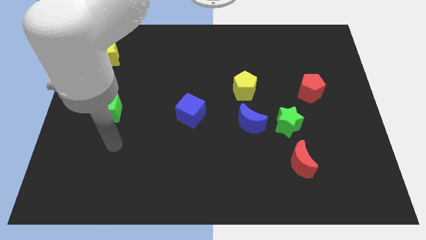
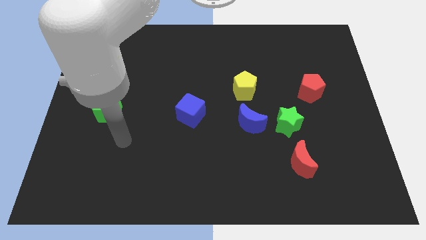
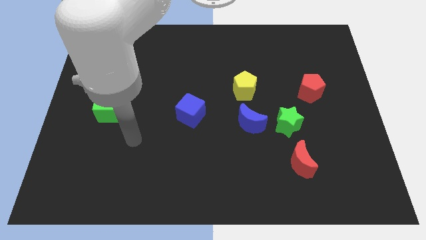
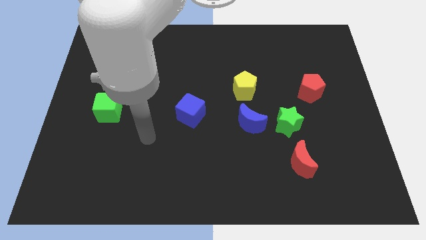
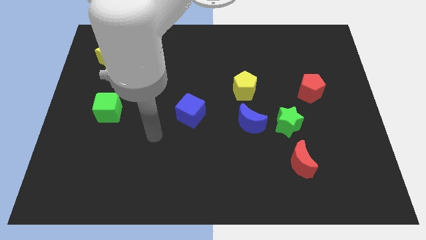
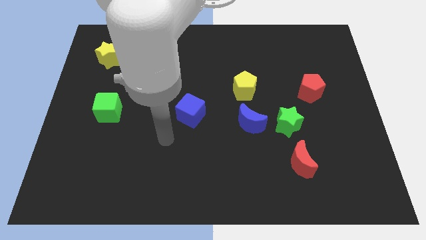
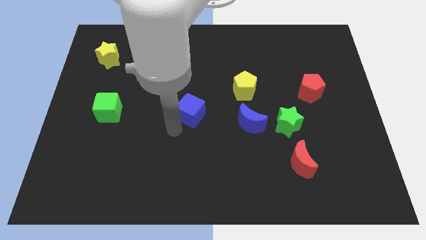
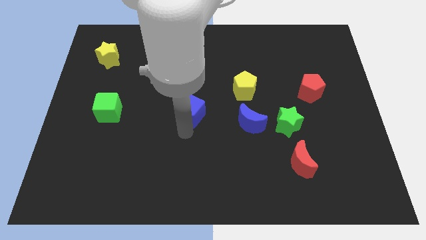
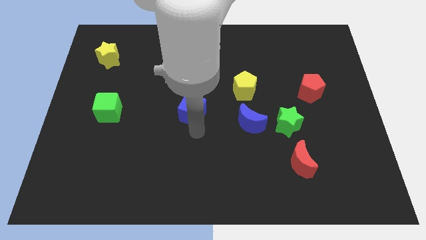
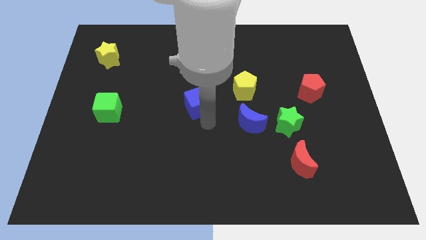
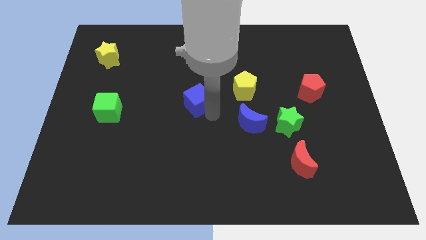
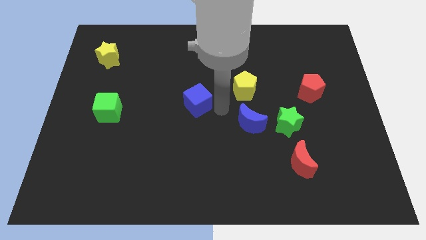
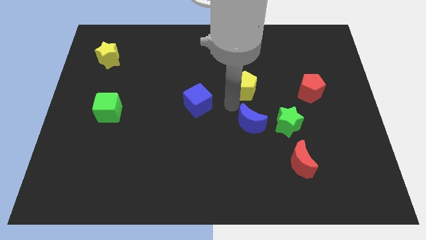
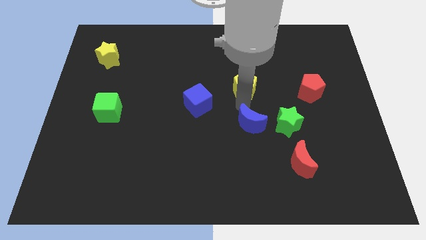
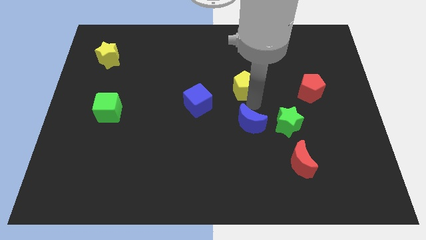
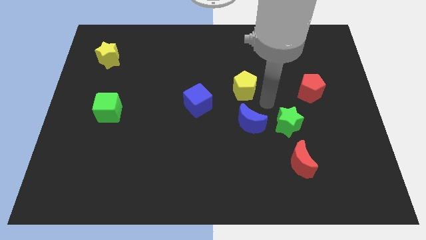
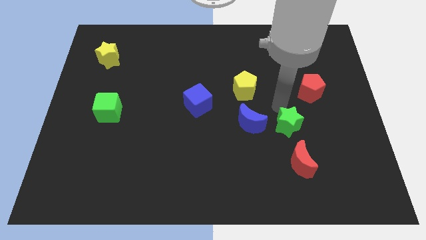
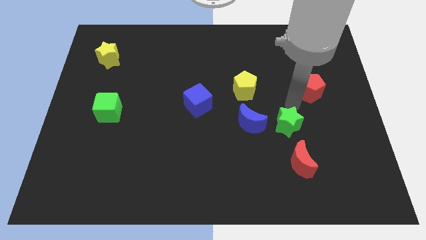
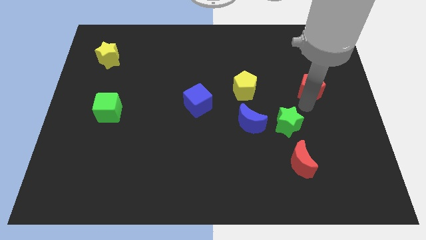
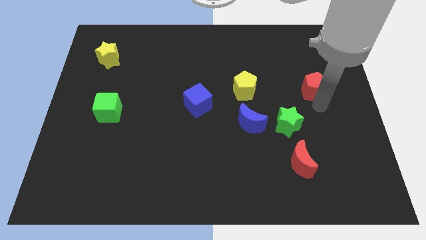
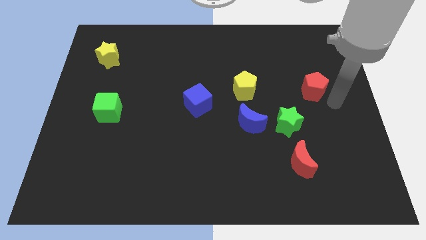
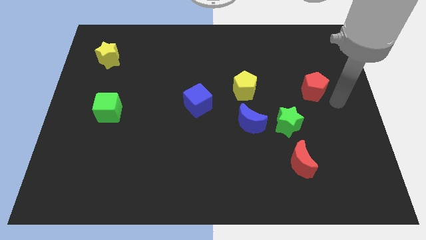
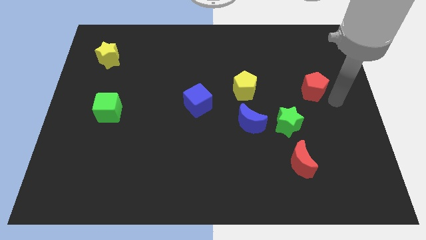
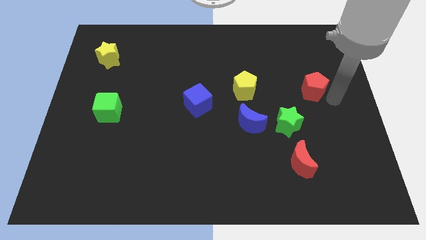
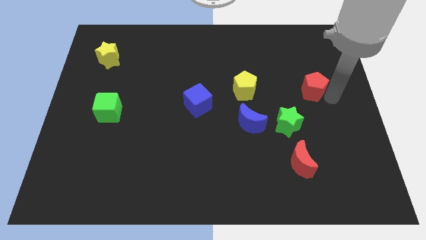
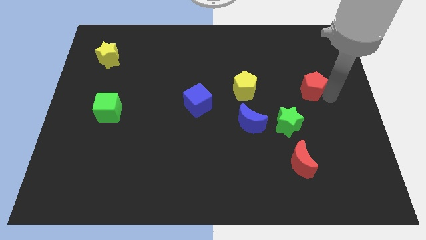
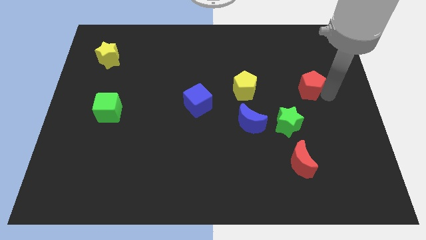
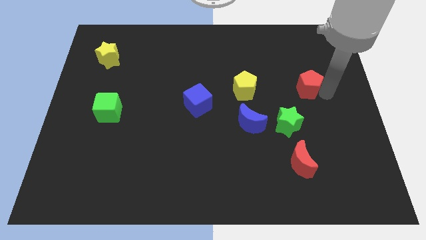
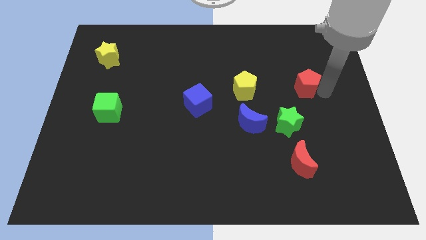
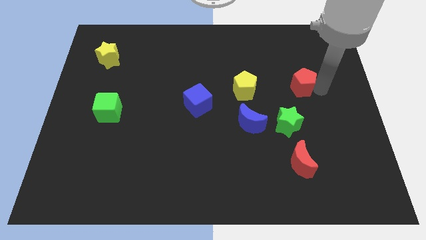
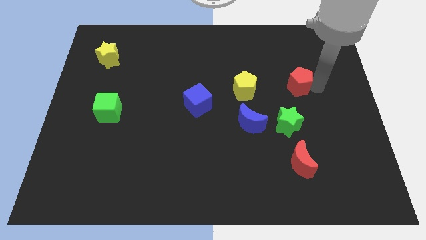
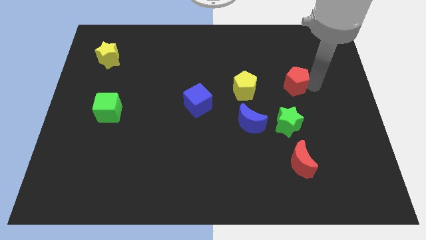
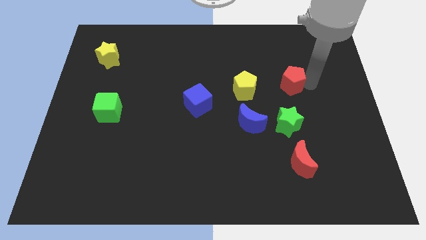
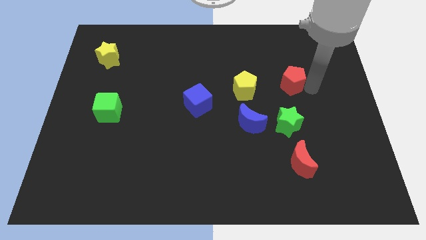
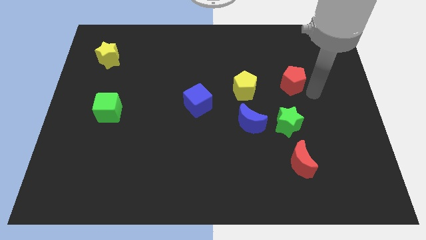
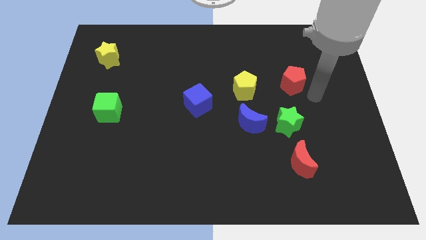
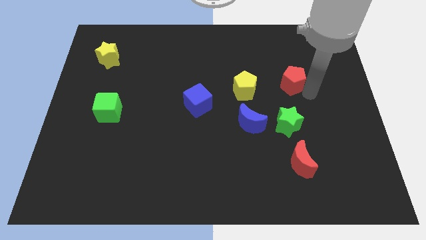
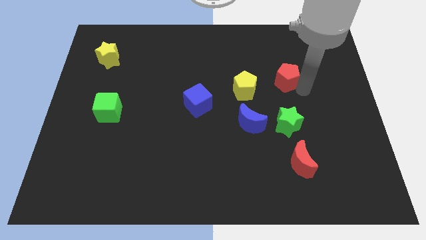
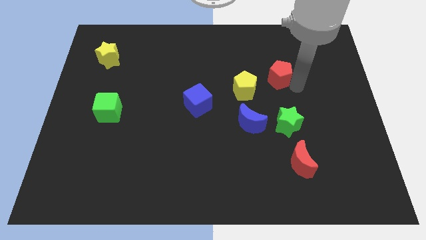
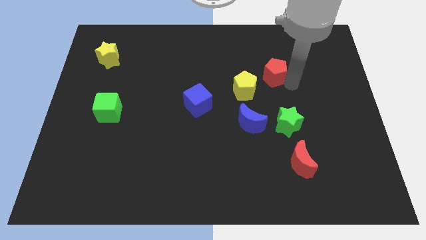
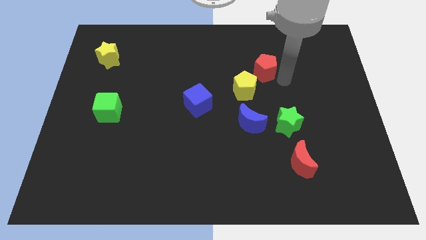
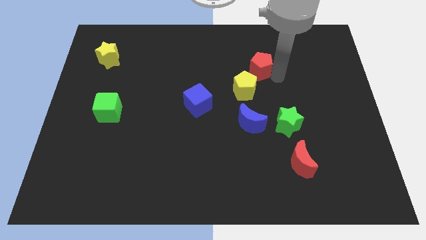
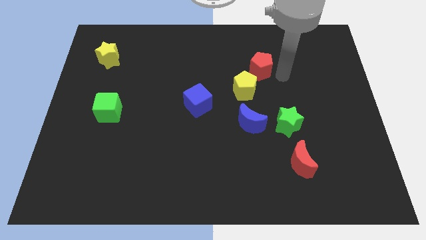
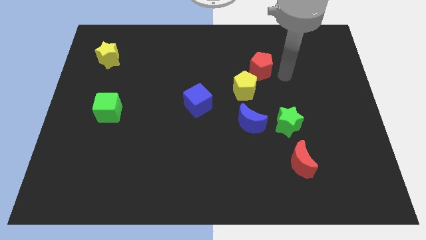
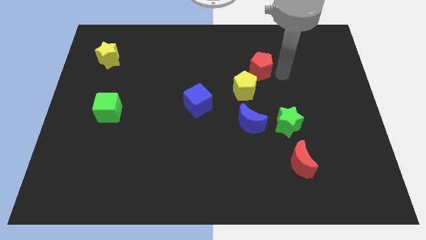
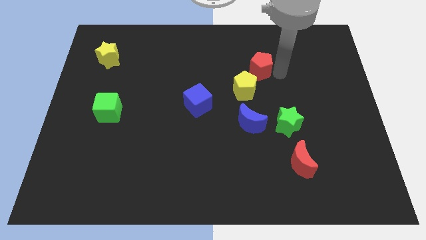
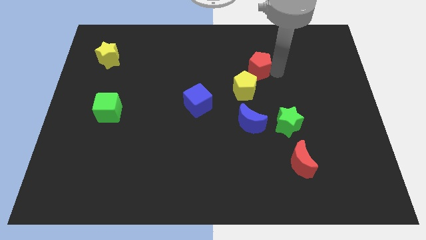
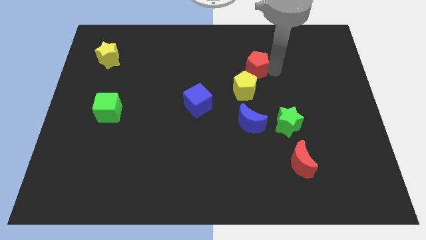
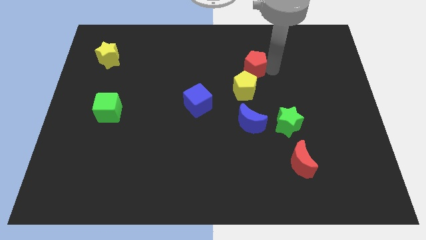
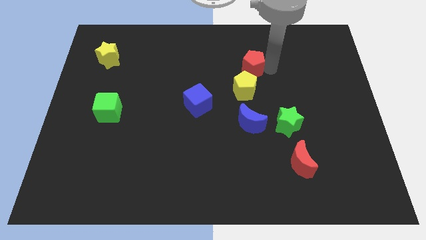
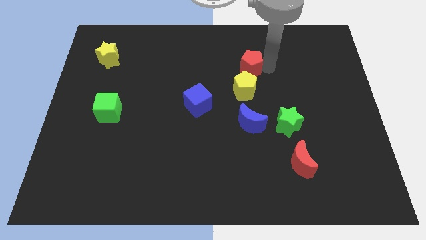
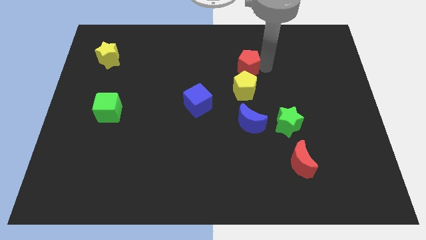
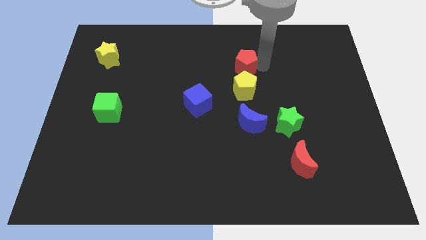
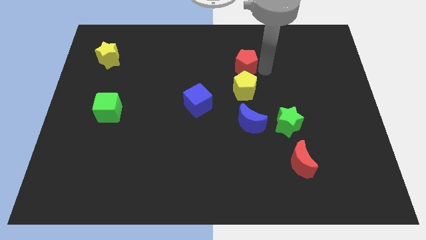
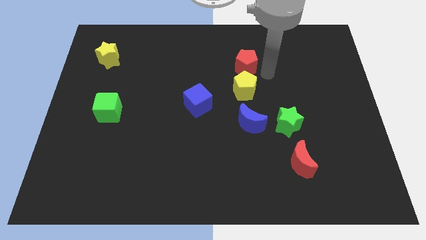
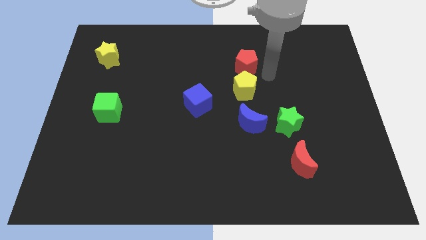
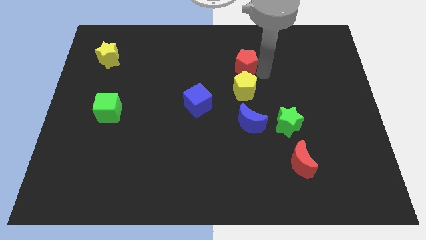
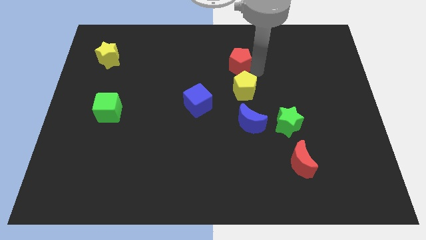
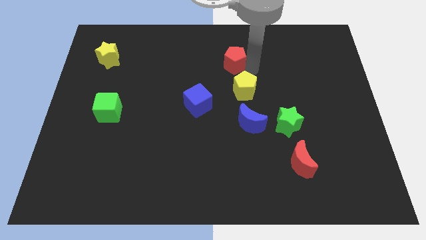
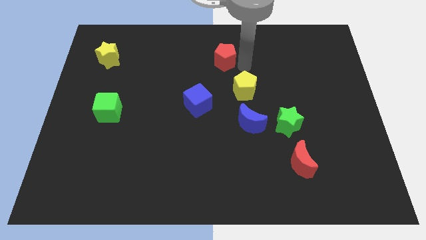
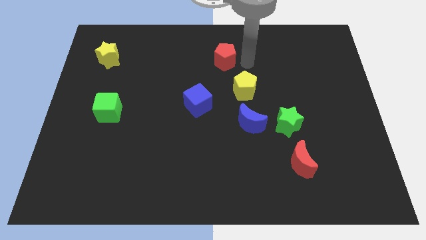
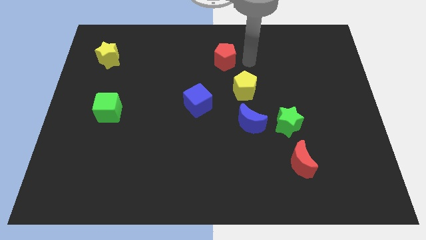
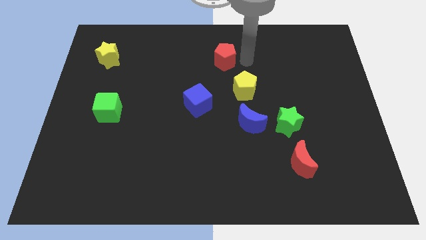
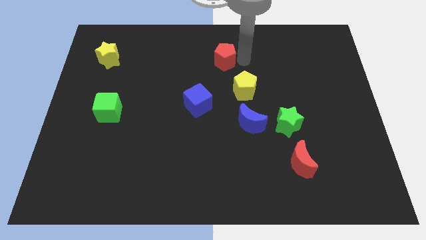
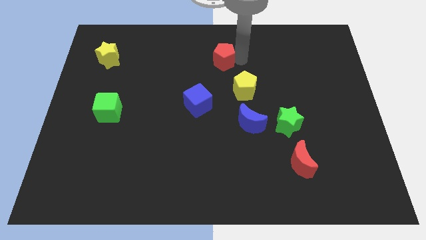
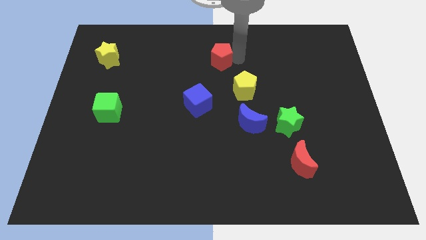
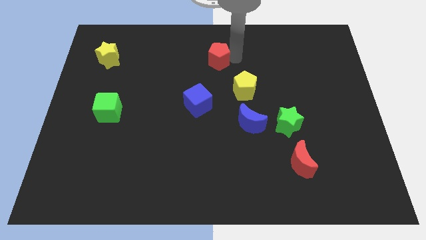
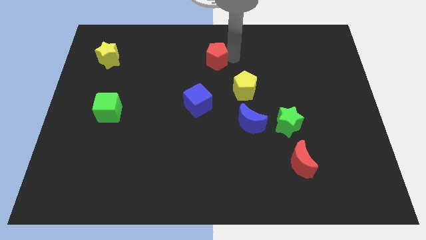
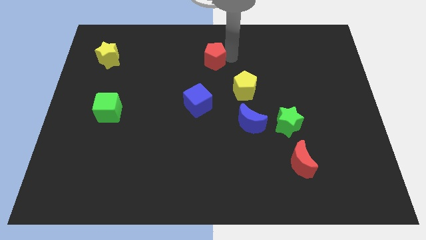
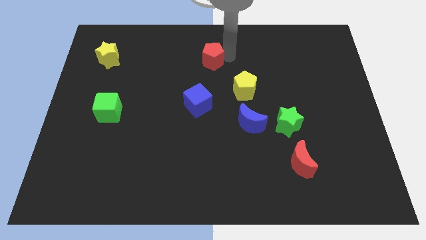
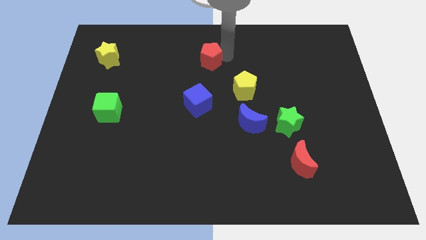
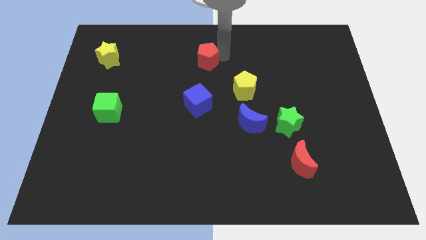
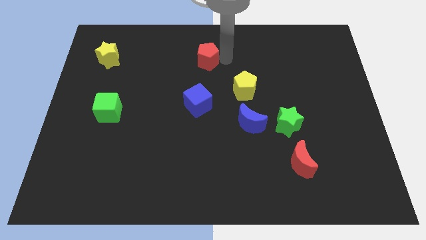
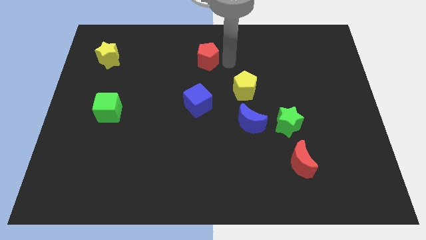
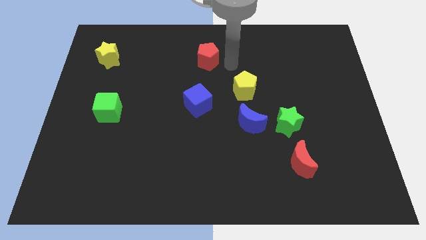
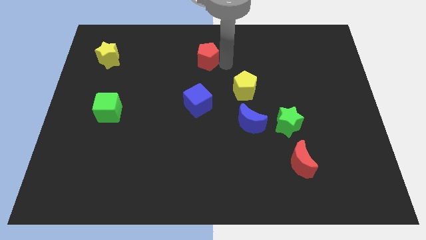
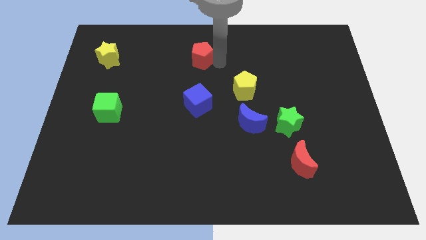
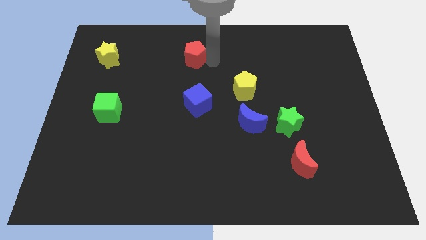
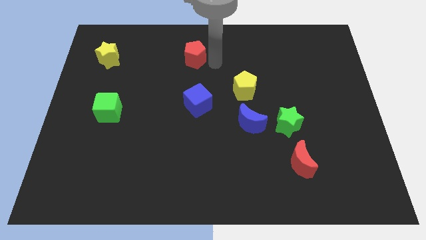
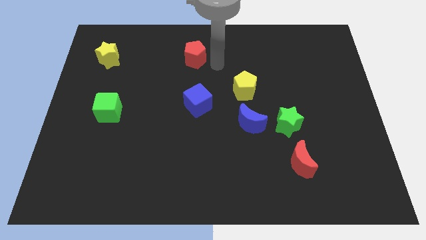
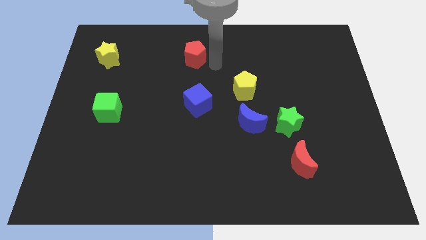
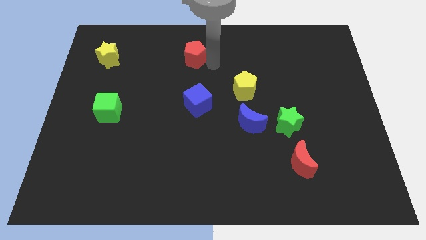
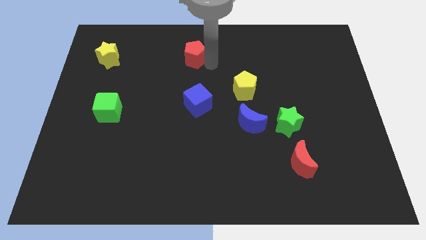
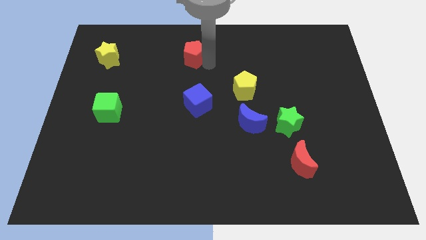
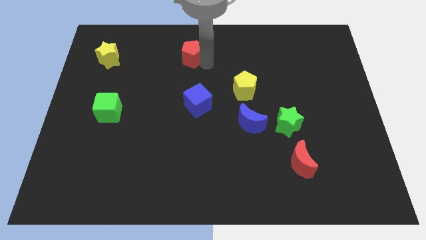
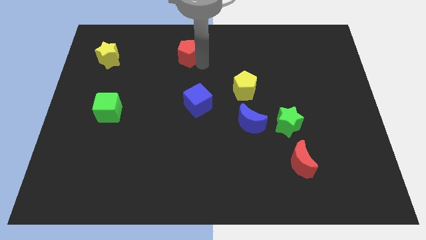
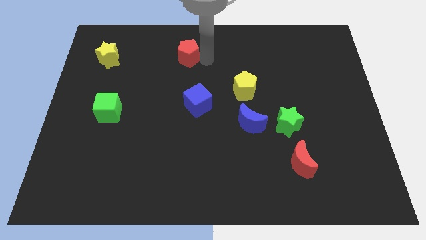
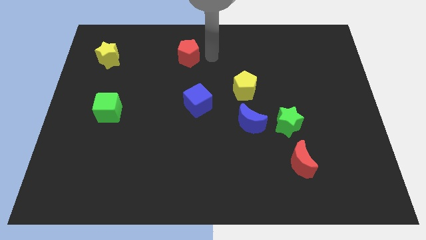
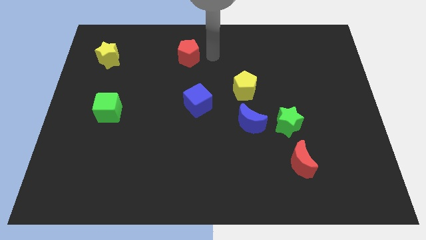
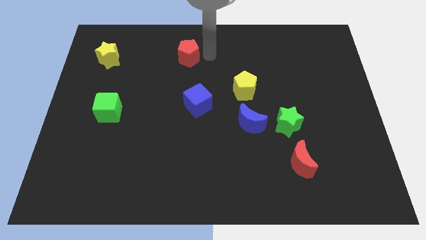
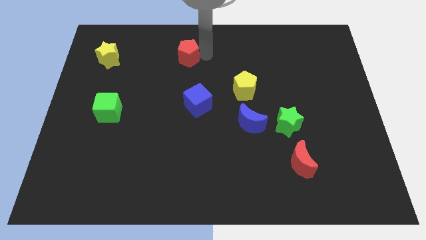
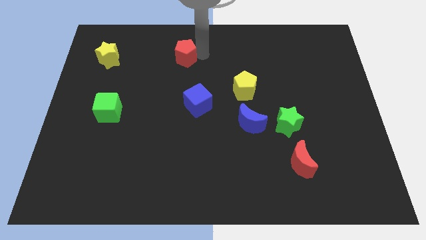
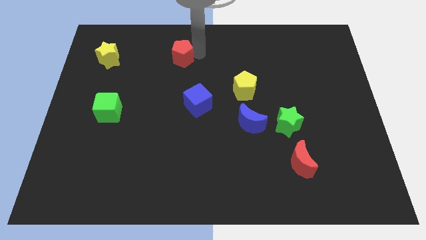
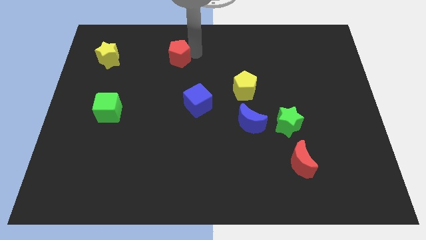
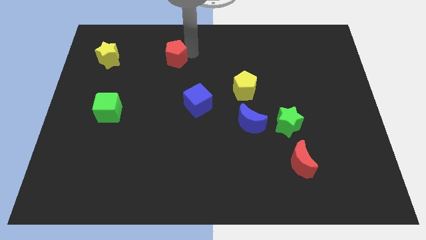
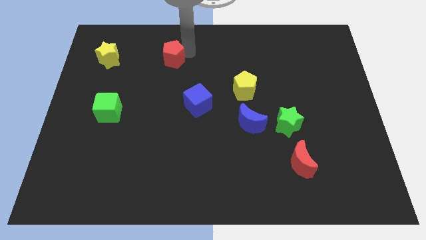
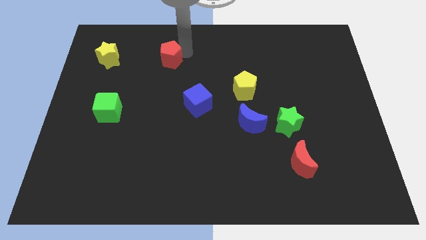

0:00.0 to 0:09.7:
slide the red pentagon right of the yellow star
